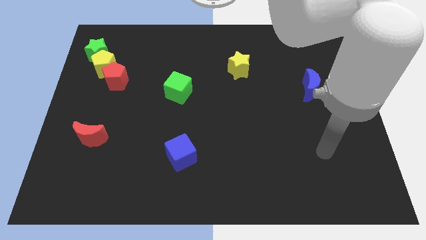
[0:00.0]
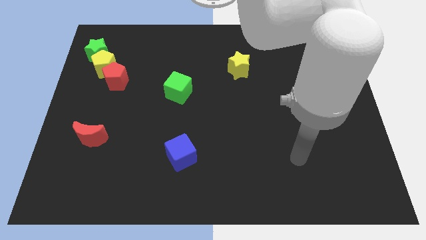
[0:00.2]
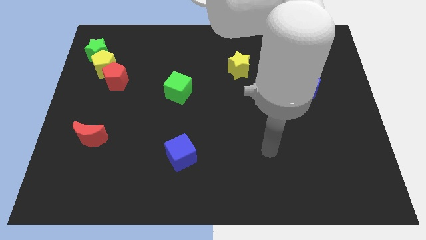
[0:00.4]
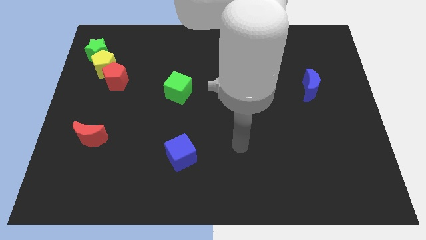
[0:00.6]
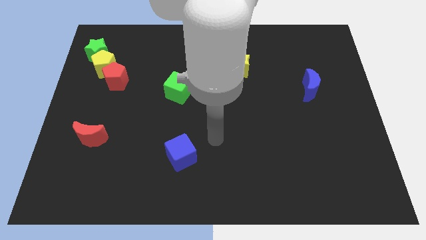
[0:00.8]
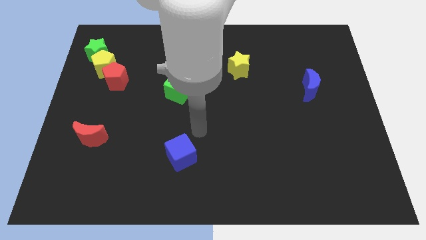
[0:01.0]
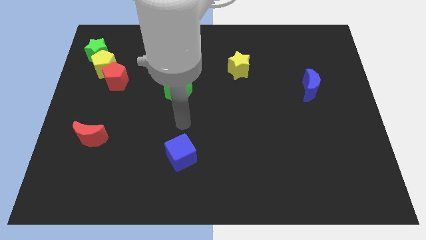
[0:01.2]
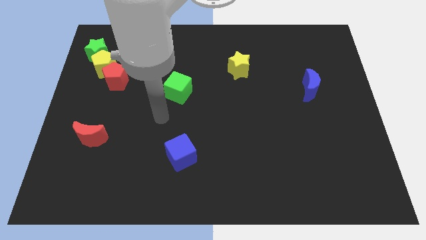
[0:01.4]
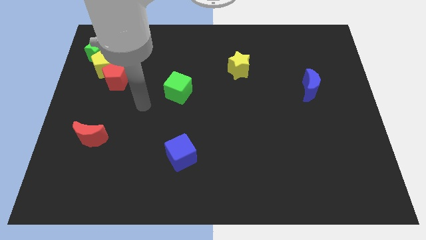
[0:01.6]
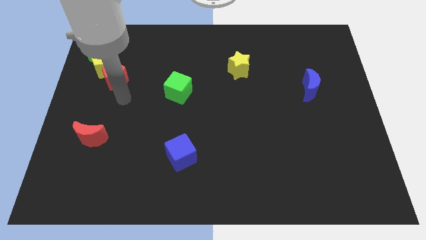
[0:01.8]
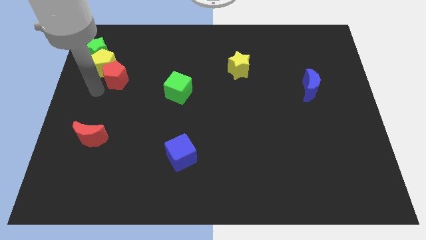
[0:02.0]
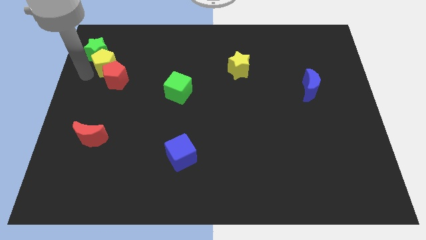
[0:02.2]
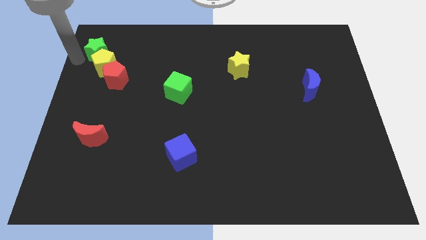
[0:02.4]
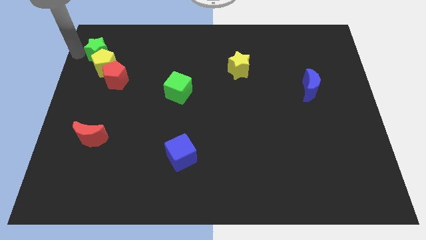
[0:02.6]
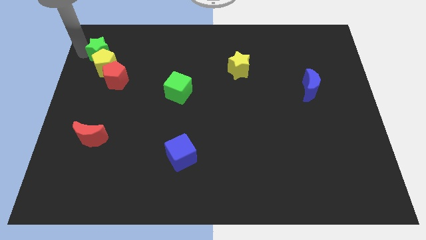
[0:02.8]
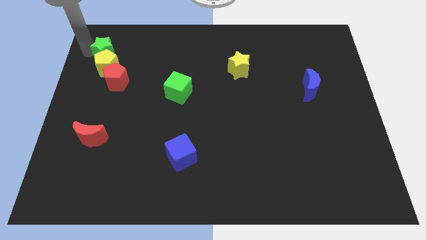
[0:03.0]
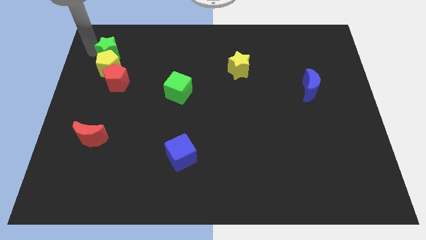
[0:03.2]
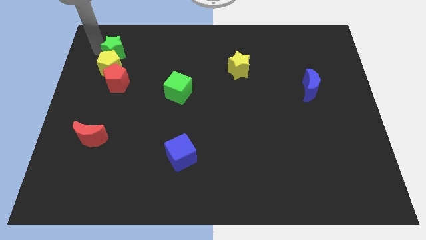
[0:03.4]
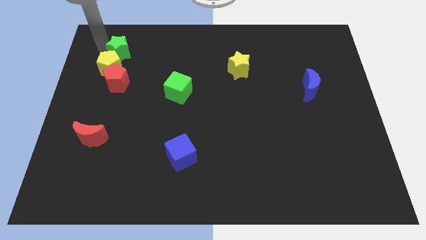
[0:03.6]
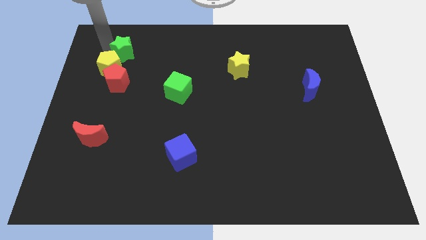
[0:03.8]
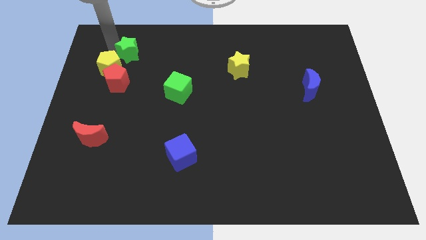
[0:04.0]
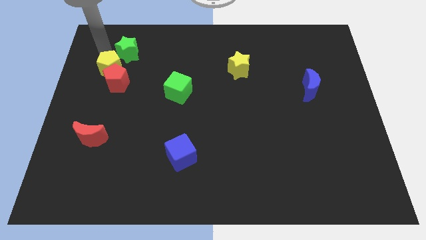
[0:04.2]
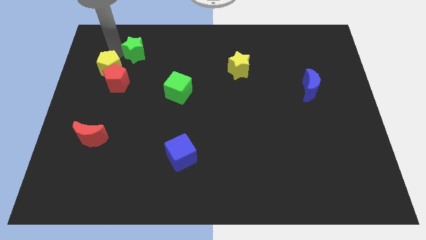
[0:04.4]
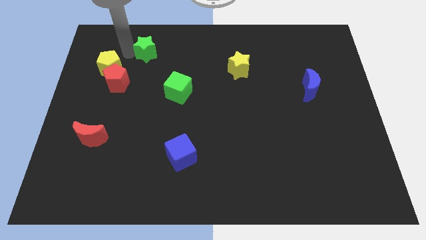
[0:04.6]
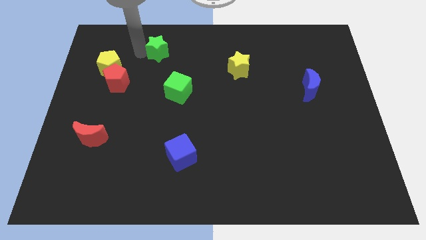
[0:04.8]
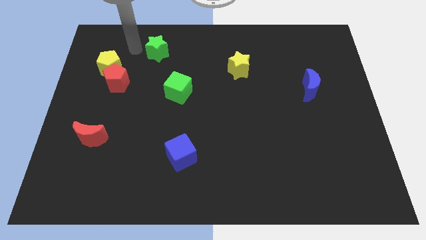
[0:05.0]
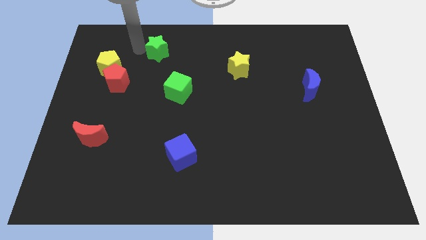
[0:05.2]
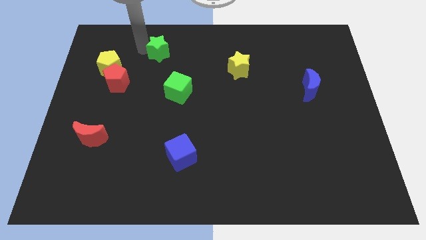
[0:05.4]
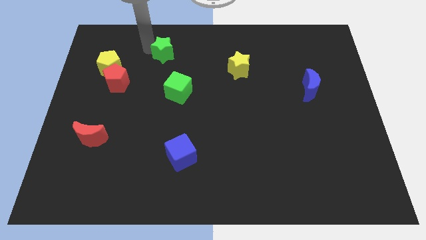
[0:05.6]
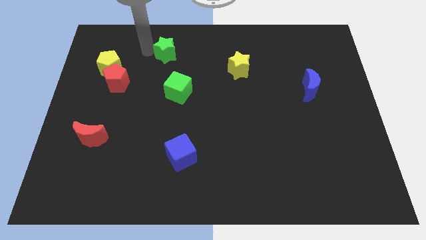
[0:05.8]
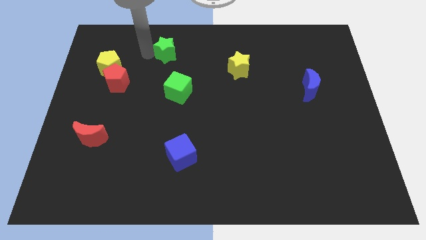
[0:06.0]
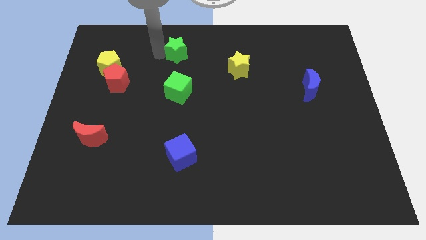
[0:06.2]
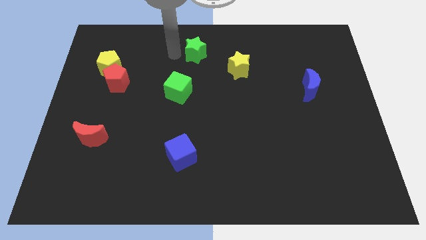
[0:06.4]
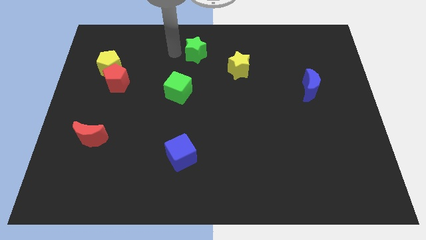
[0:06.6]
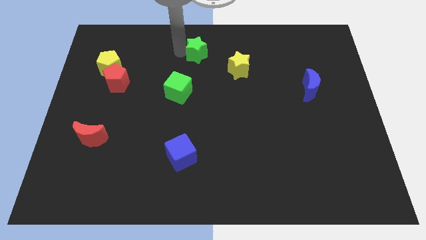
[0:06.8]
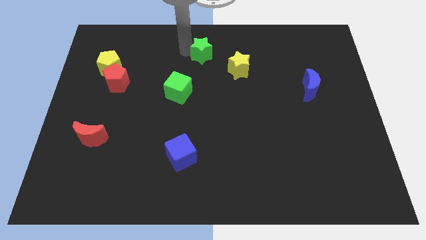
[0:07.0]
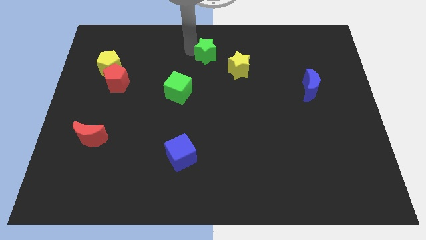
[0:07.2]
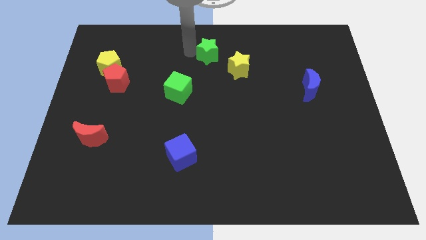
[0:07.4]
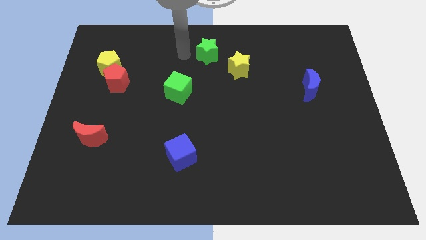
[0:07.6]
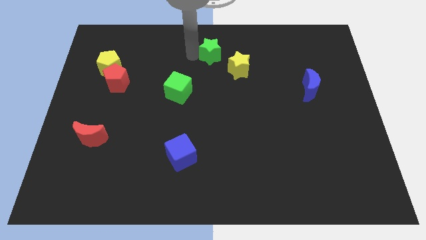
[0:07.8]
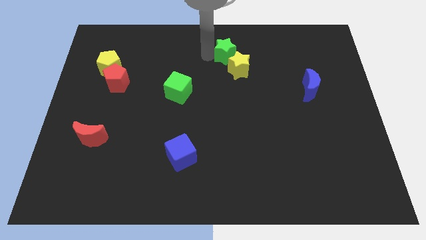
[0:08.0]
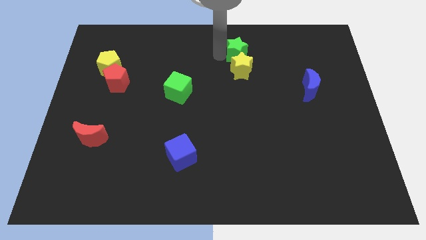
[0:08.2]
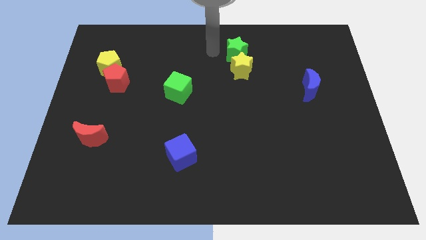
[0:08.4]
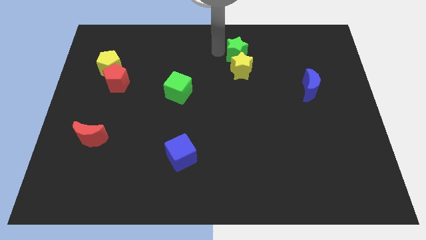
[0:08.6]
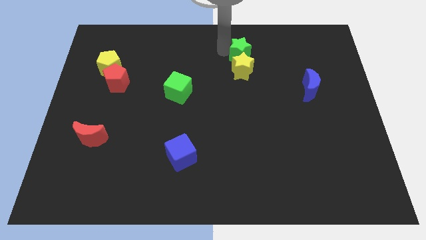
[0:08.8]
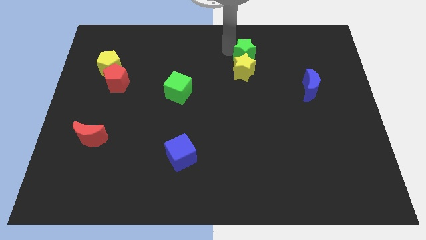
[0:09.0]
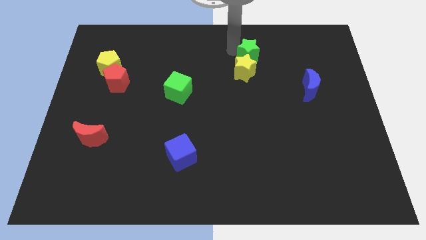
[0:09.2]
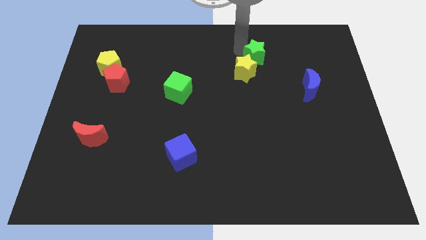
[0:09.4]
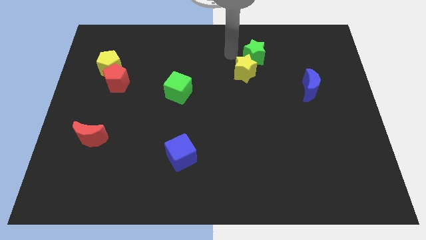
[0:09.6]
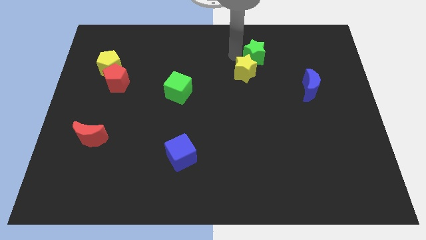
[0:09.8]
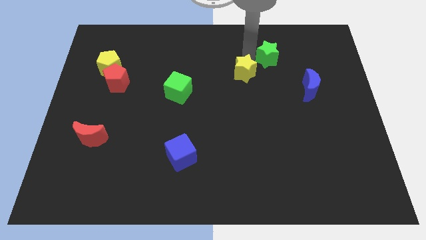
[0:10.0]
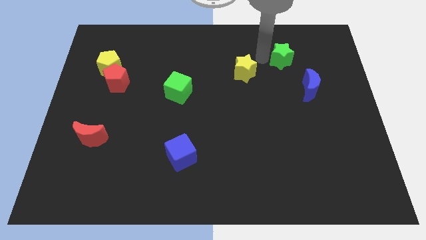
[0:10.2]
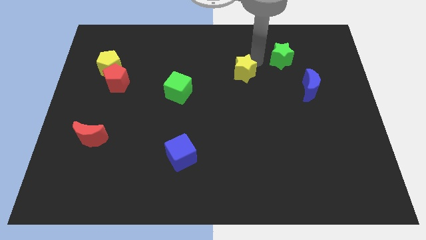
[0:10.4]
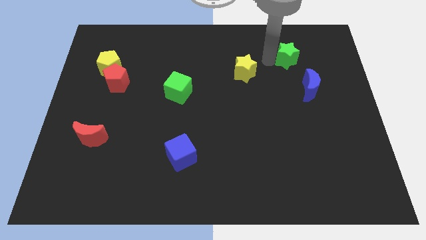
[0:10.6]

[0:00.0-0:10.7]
push the green star to the top of the blue moon

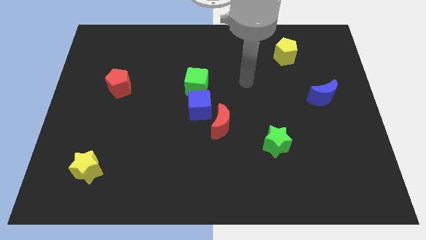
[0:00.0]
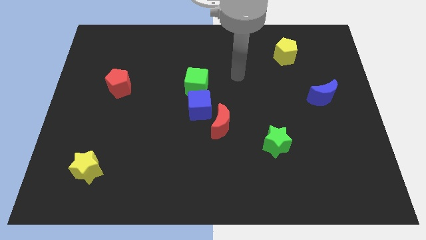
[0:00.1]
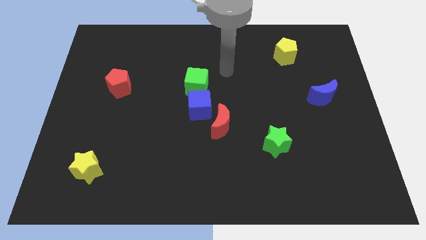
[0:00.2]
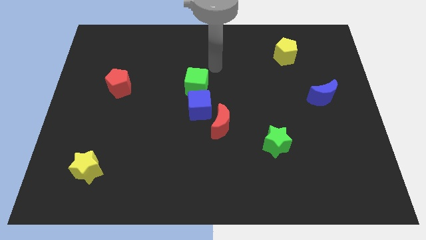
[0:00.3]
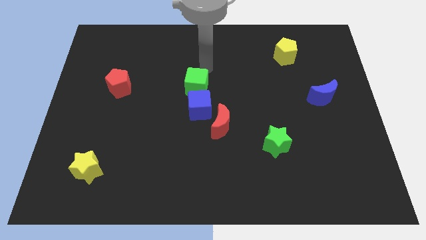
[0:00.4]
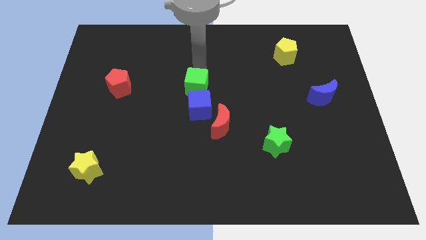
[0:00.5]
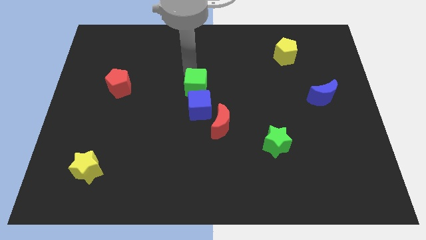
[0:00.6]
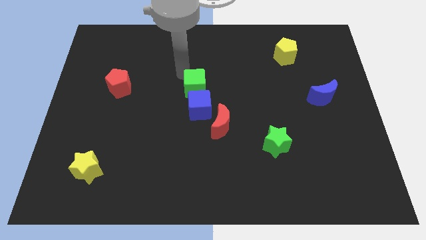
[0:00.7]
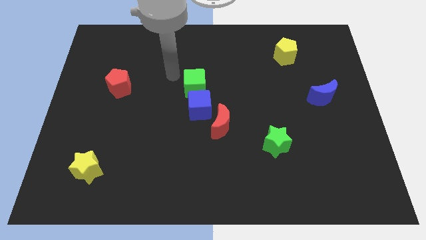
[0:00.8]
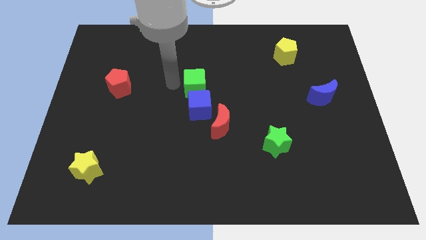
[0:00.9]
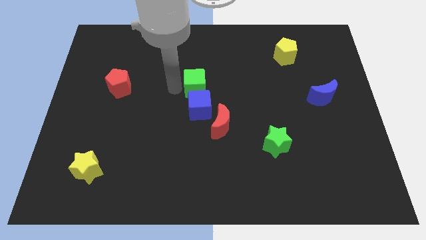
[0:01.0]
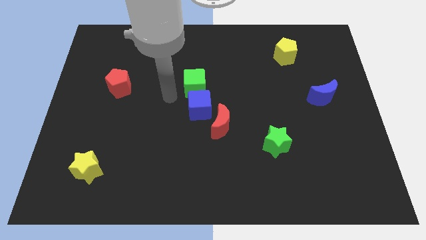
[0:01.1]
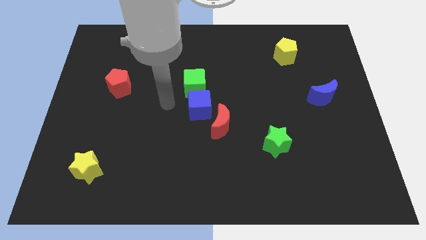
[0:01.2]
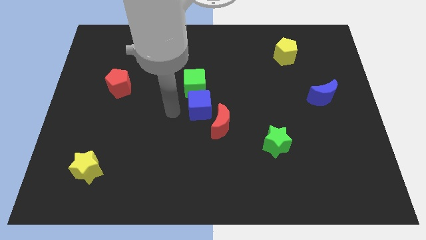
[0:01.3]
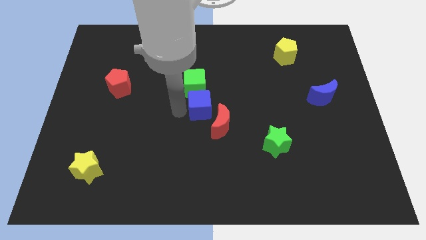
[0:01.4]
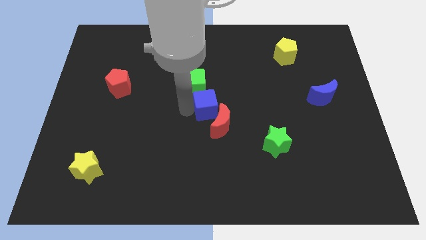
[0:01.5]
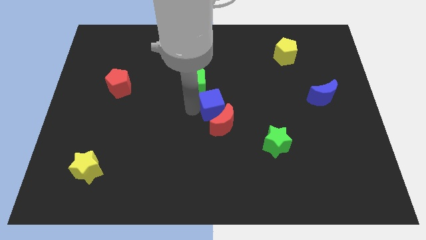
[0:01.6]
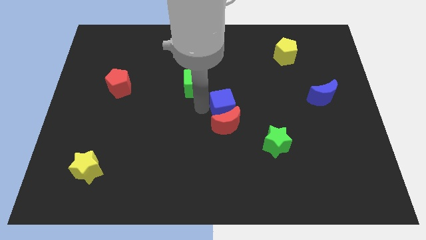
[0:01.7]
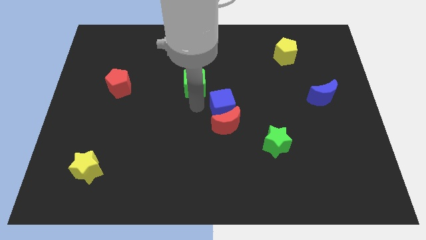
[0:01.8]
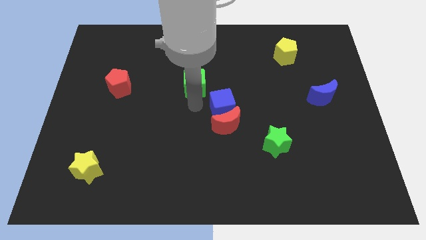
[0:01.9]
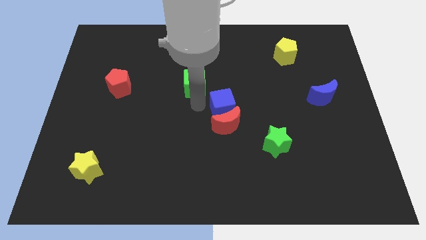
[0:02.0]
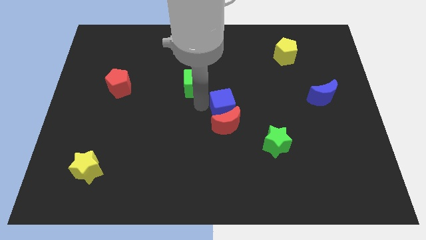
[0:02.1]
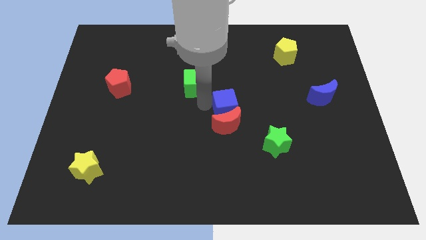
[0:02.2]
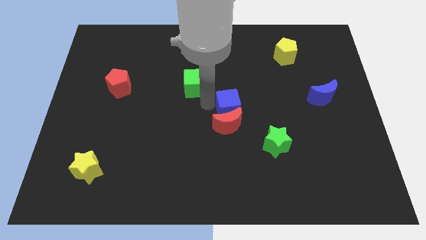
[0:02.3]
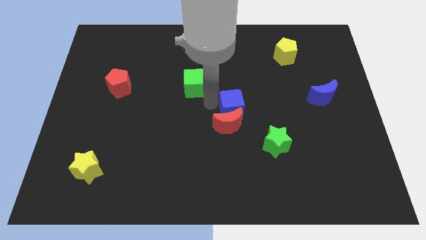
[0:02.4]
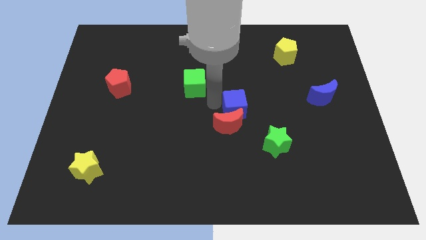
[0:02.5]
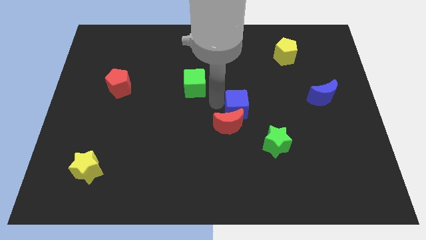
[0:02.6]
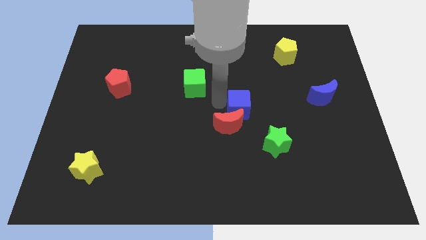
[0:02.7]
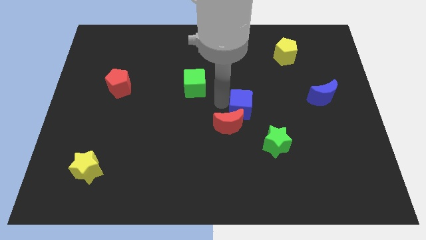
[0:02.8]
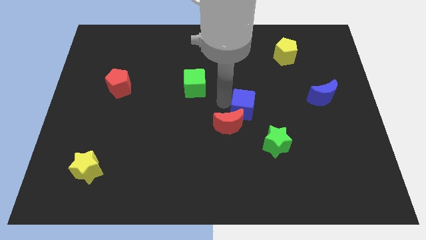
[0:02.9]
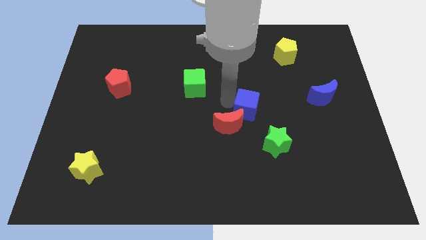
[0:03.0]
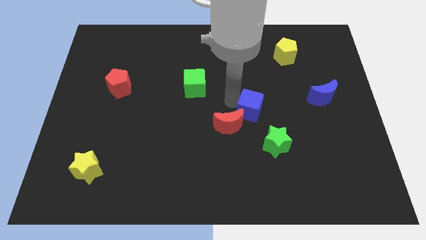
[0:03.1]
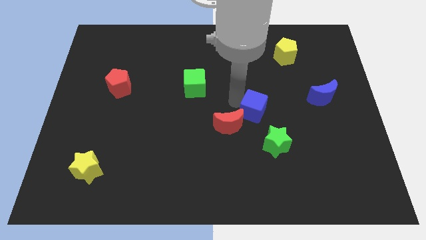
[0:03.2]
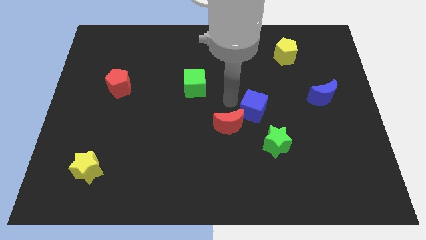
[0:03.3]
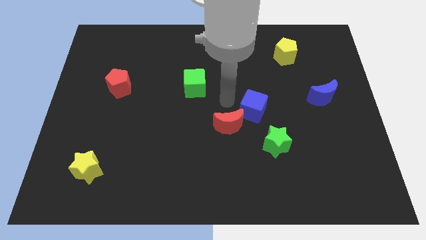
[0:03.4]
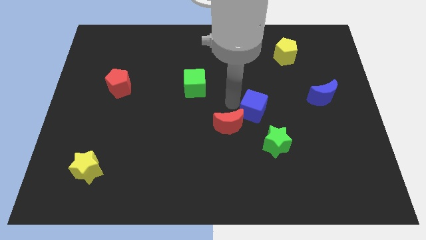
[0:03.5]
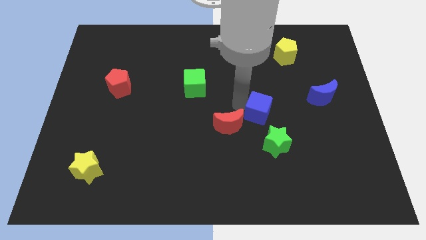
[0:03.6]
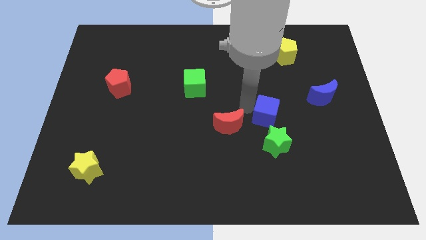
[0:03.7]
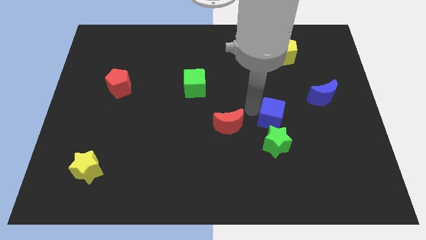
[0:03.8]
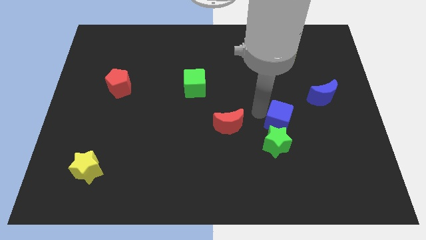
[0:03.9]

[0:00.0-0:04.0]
push the blue cube to the top right of the green star
